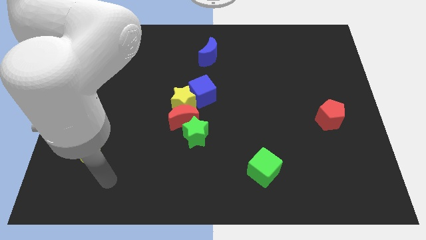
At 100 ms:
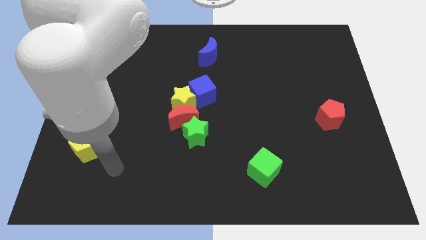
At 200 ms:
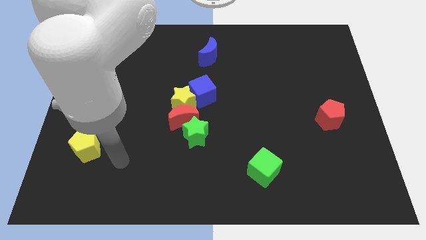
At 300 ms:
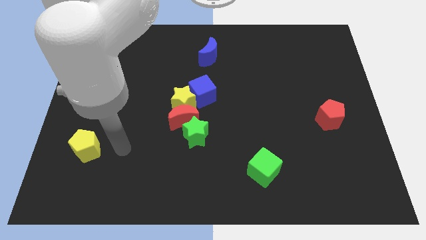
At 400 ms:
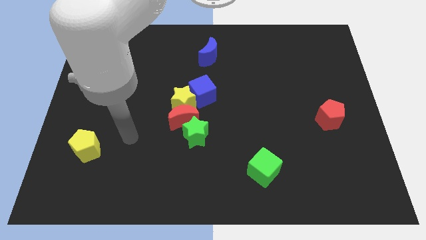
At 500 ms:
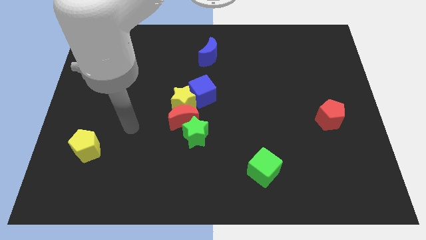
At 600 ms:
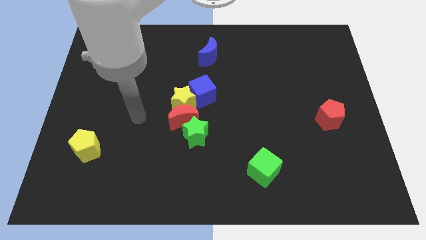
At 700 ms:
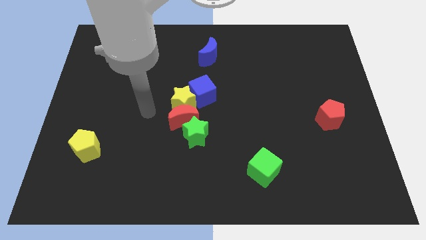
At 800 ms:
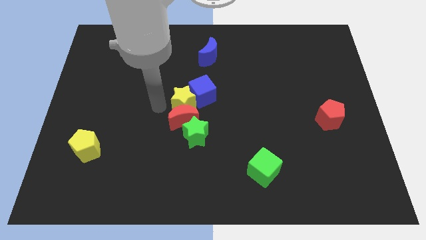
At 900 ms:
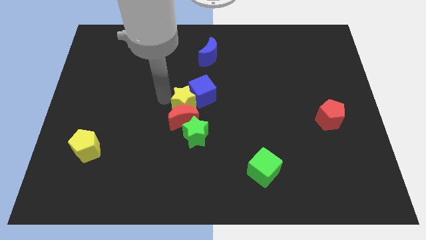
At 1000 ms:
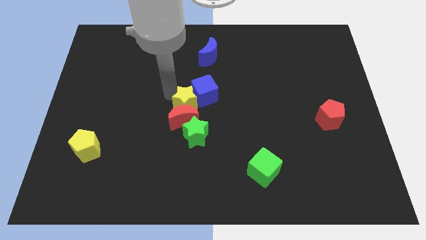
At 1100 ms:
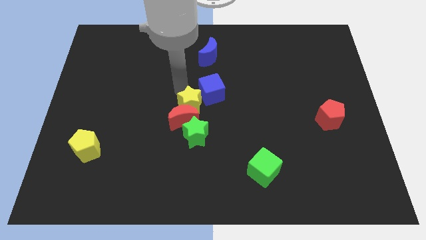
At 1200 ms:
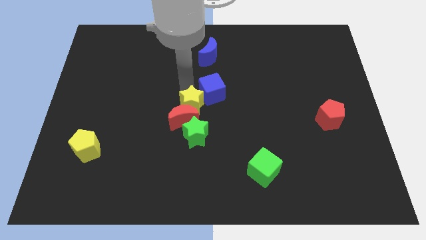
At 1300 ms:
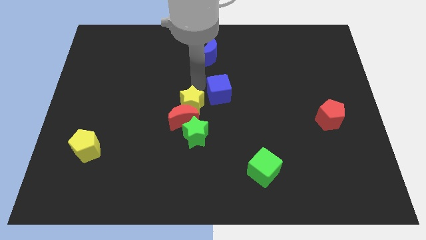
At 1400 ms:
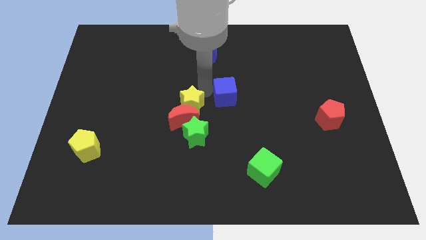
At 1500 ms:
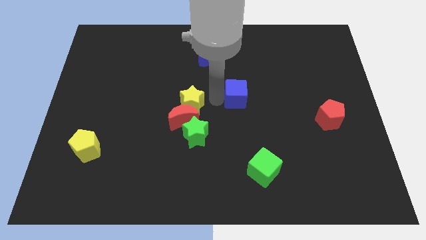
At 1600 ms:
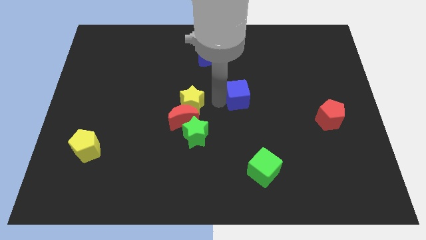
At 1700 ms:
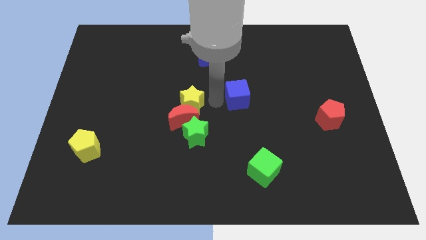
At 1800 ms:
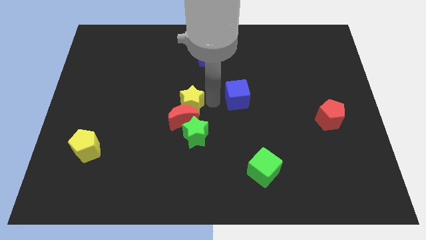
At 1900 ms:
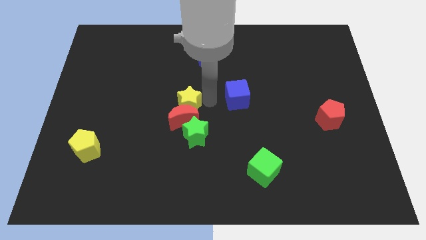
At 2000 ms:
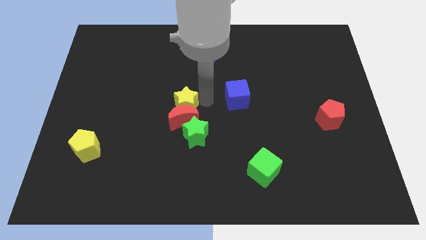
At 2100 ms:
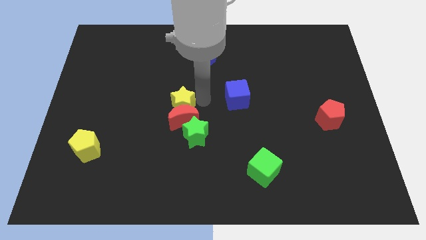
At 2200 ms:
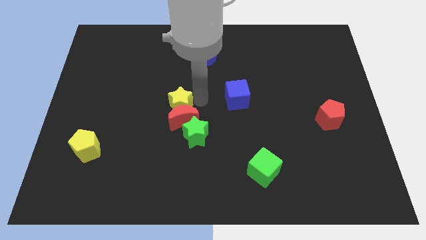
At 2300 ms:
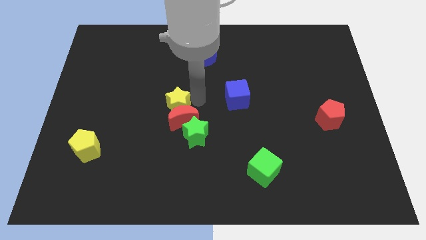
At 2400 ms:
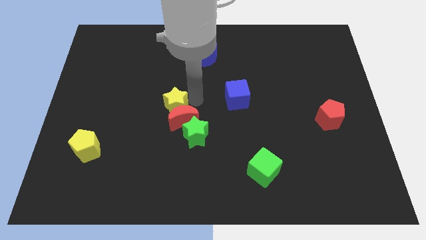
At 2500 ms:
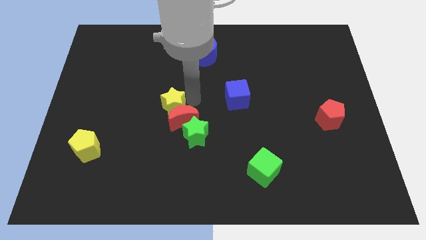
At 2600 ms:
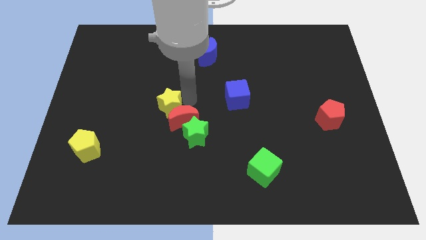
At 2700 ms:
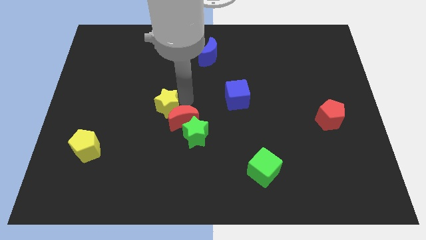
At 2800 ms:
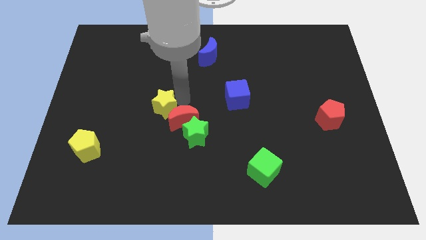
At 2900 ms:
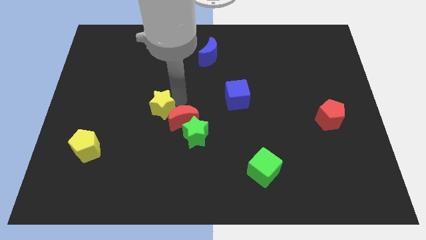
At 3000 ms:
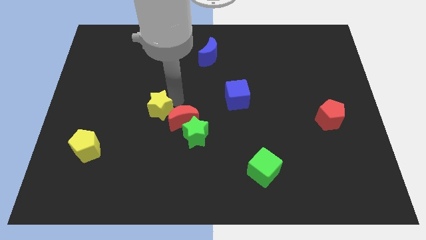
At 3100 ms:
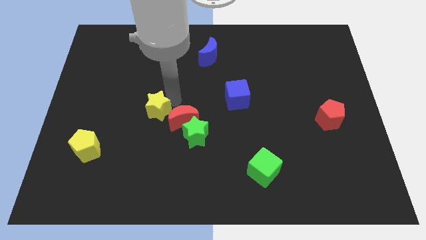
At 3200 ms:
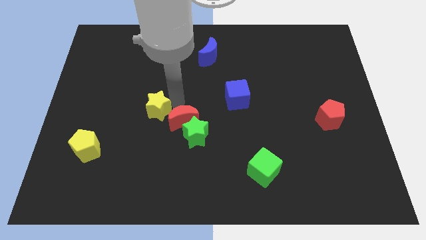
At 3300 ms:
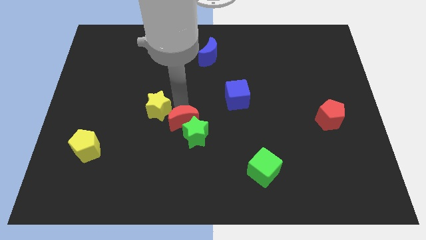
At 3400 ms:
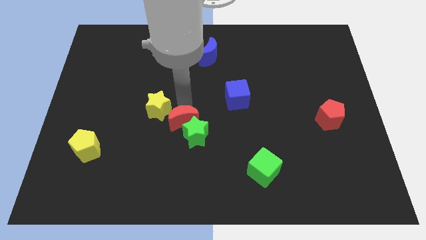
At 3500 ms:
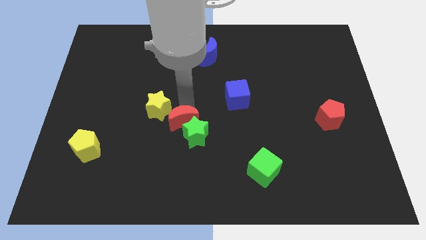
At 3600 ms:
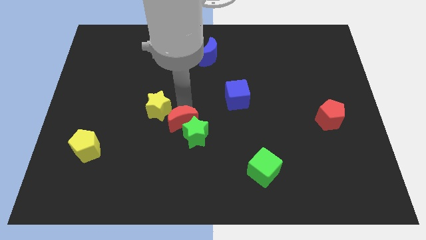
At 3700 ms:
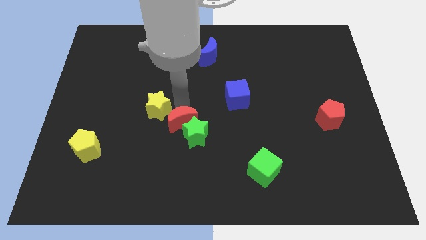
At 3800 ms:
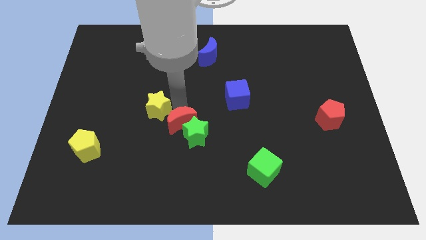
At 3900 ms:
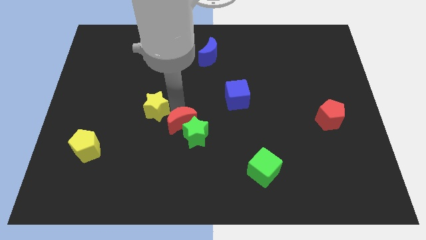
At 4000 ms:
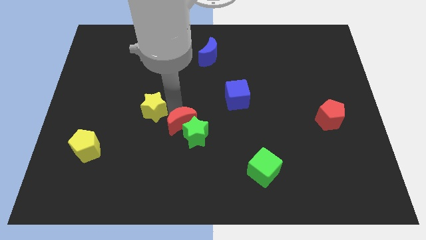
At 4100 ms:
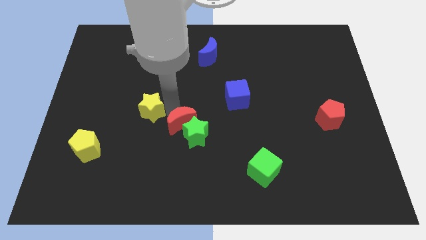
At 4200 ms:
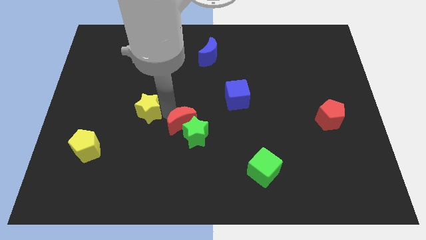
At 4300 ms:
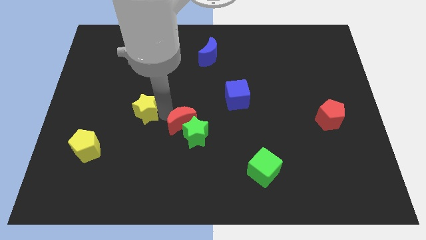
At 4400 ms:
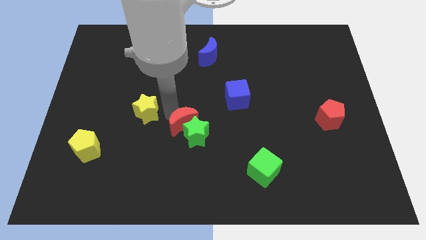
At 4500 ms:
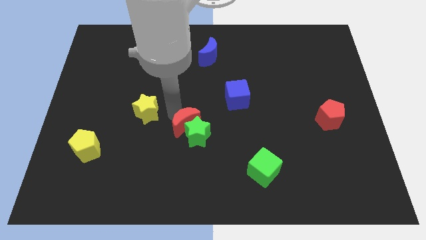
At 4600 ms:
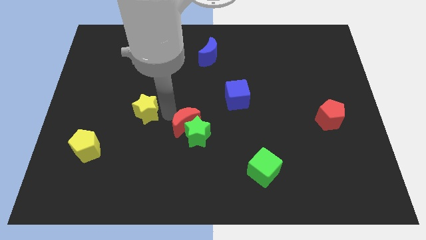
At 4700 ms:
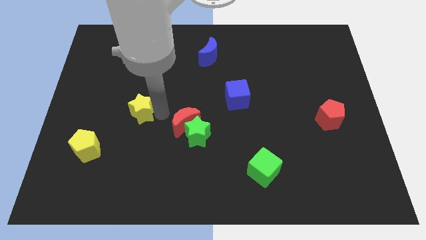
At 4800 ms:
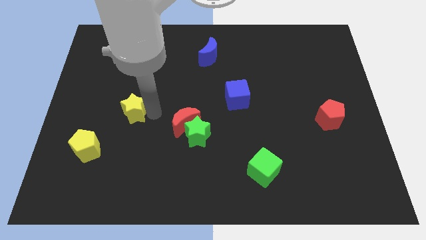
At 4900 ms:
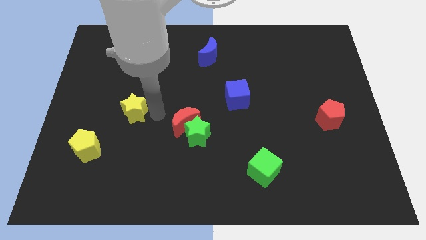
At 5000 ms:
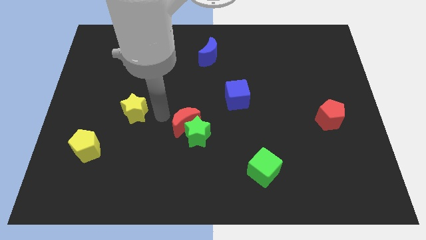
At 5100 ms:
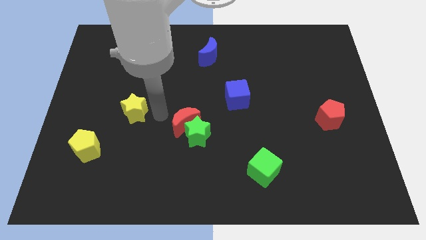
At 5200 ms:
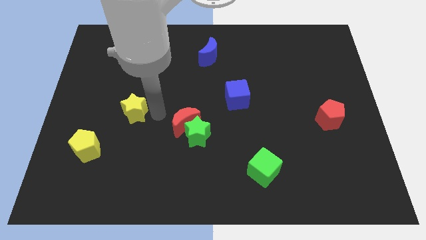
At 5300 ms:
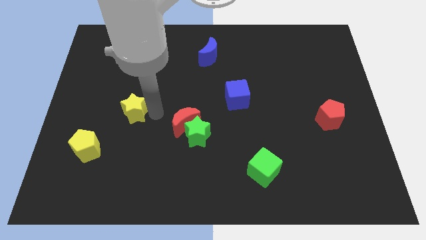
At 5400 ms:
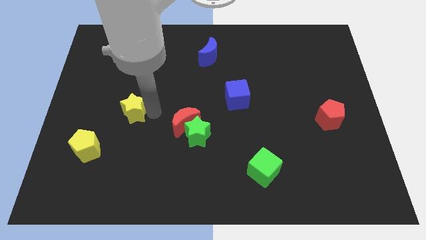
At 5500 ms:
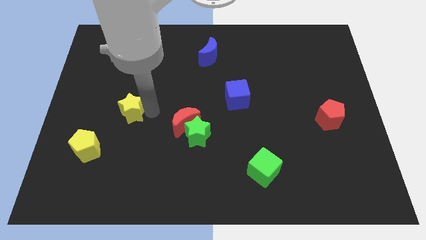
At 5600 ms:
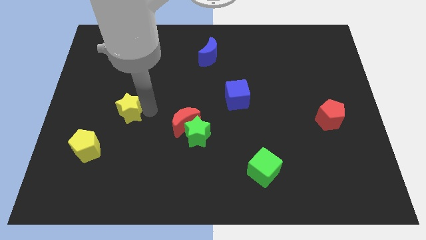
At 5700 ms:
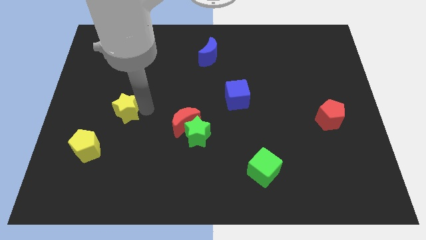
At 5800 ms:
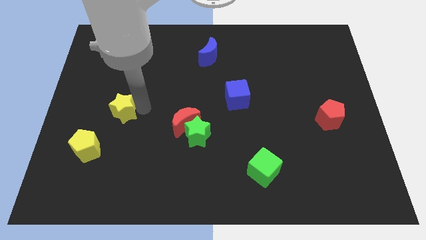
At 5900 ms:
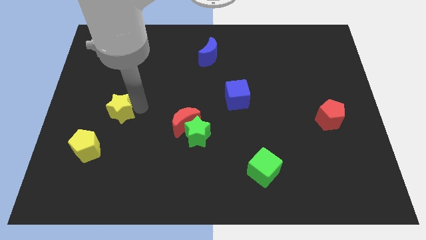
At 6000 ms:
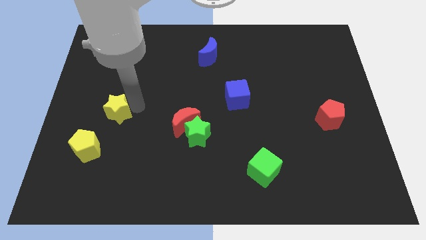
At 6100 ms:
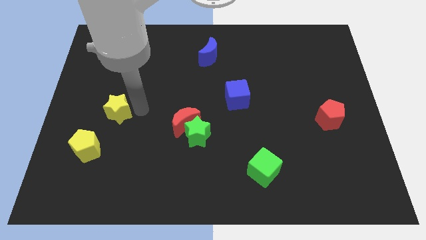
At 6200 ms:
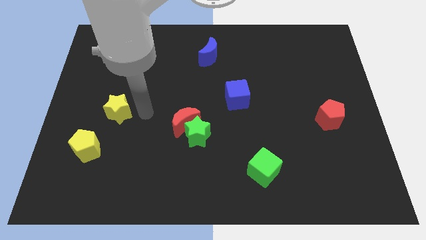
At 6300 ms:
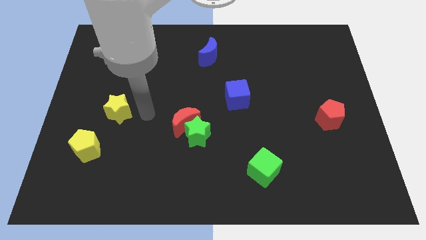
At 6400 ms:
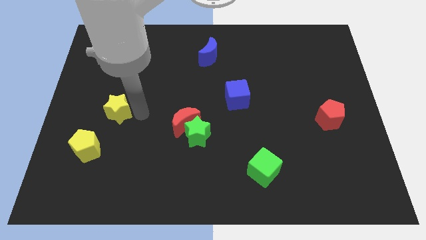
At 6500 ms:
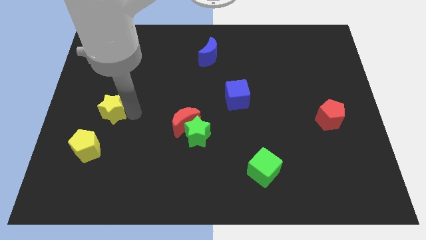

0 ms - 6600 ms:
push the yellow star to the top of the yellow pentagon

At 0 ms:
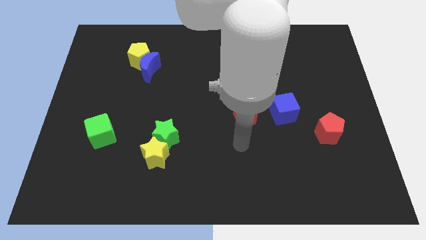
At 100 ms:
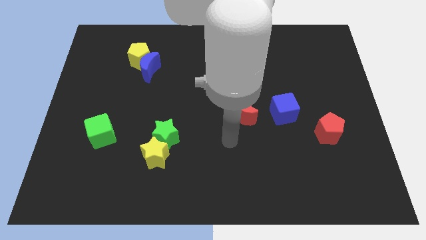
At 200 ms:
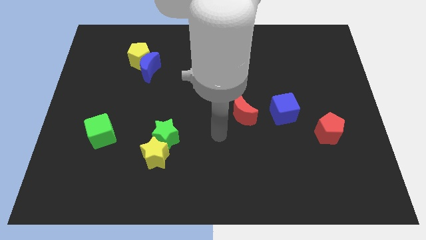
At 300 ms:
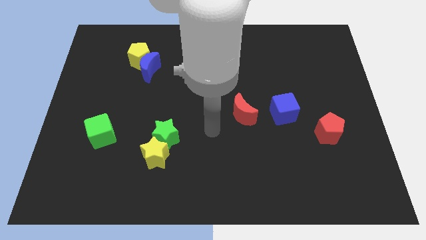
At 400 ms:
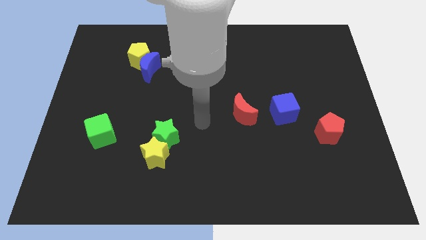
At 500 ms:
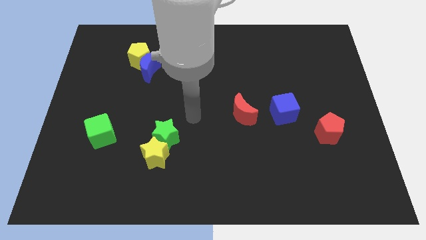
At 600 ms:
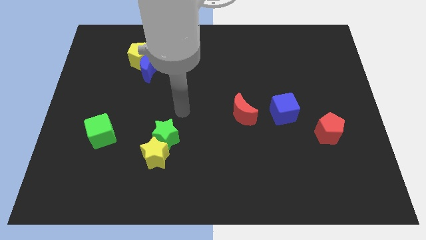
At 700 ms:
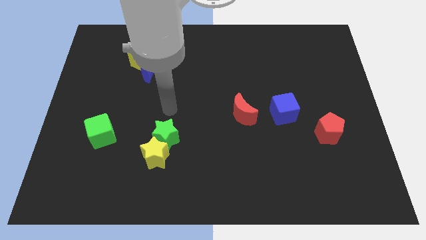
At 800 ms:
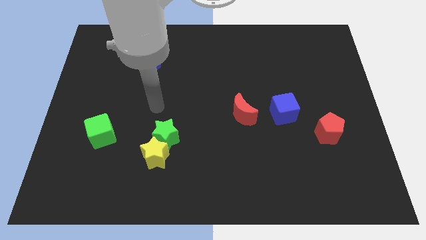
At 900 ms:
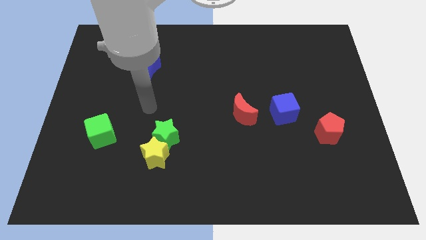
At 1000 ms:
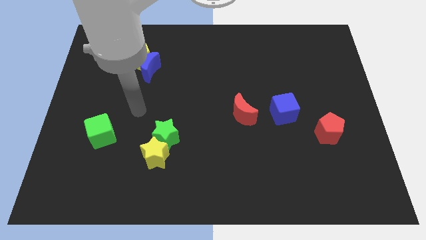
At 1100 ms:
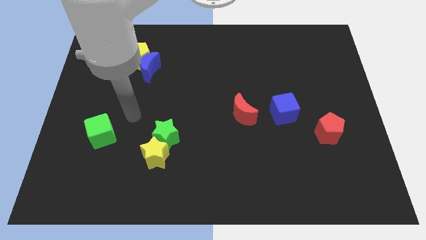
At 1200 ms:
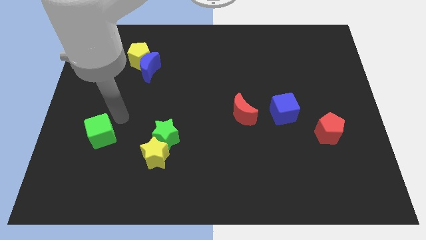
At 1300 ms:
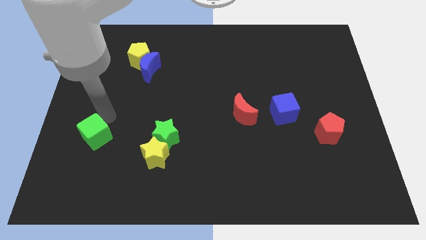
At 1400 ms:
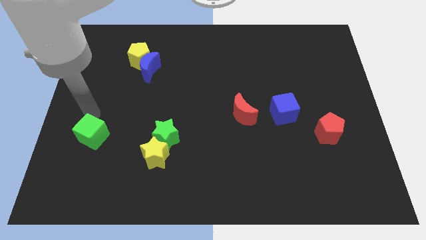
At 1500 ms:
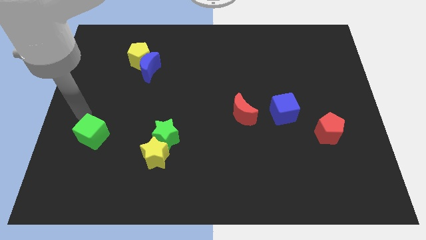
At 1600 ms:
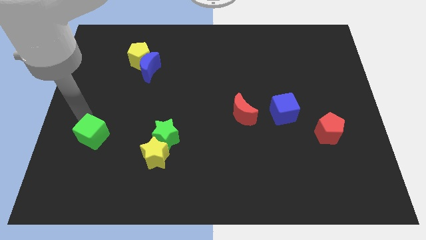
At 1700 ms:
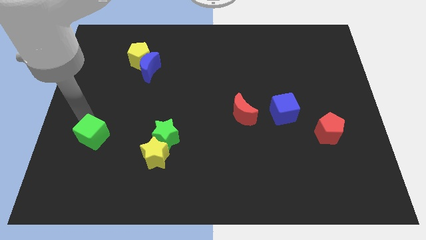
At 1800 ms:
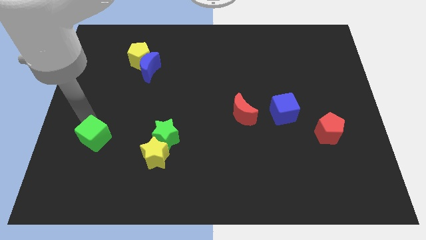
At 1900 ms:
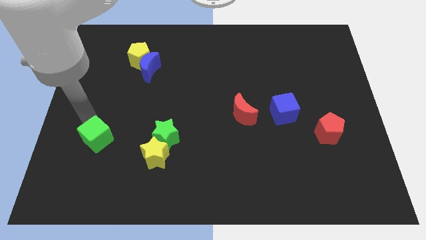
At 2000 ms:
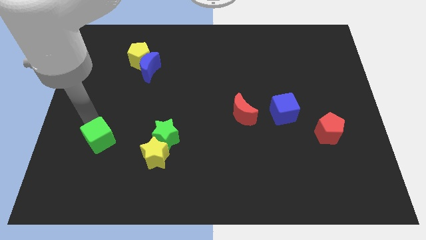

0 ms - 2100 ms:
put the green cube just left of the yellow star

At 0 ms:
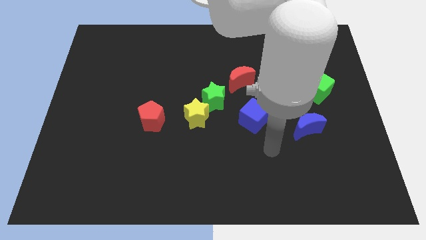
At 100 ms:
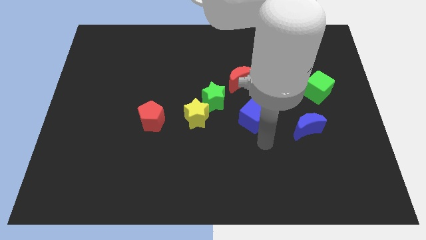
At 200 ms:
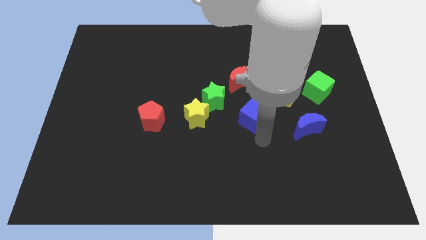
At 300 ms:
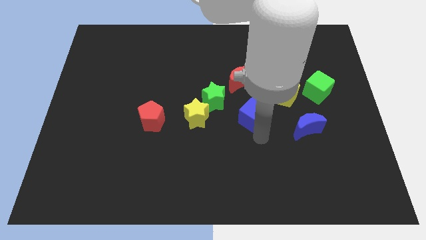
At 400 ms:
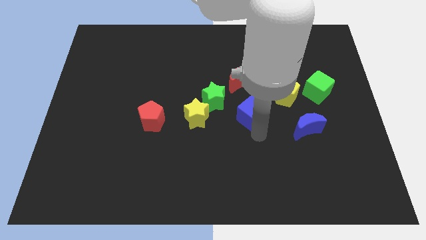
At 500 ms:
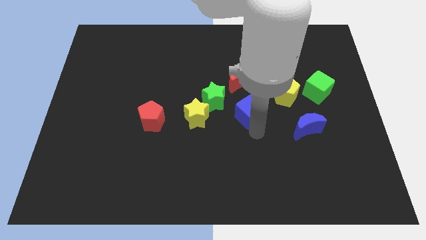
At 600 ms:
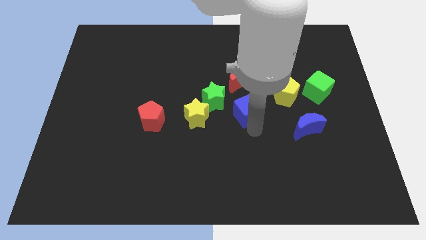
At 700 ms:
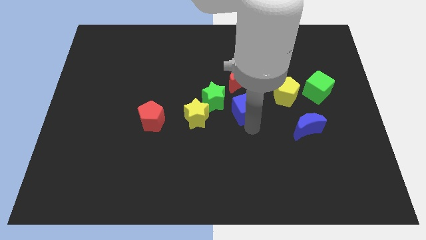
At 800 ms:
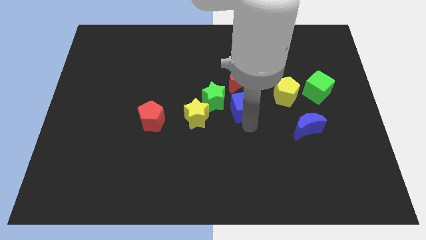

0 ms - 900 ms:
put the blue cube just left of the yellow pentagon
